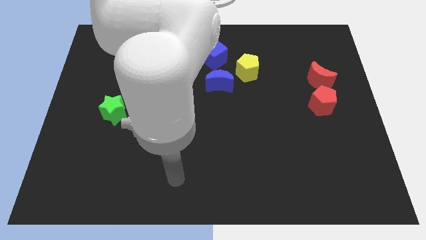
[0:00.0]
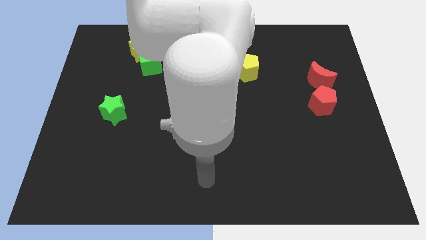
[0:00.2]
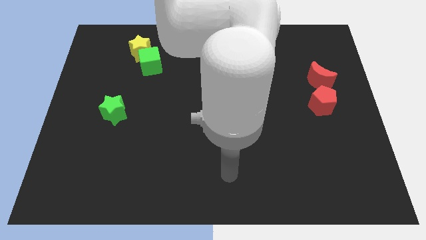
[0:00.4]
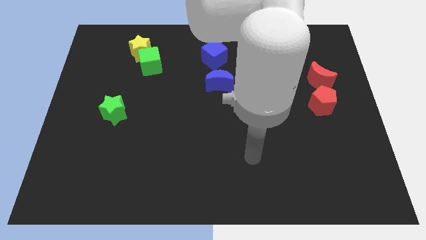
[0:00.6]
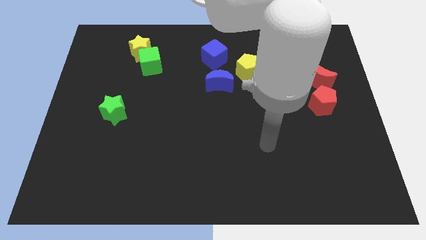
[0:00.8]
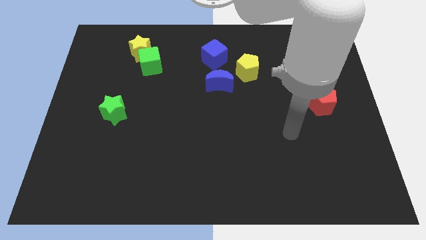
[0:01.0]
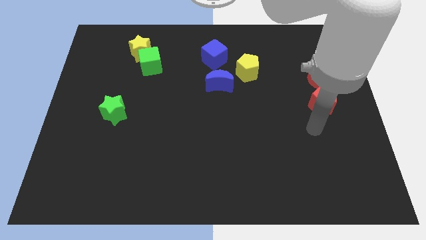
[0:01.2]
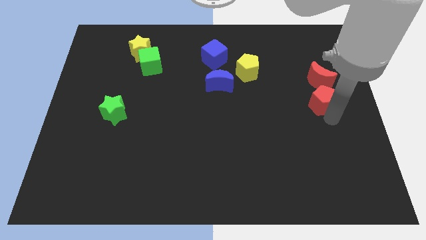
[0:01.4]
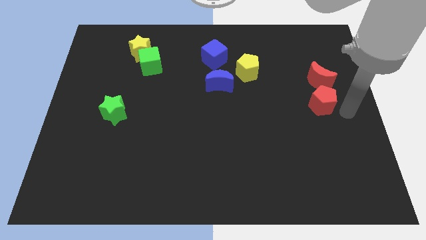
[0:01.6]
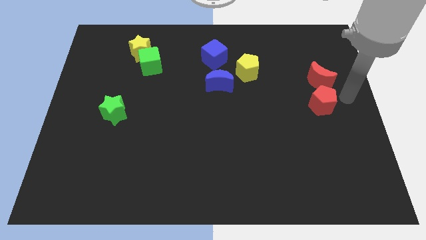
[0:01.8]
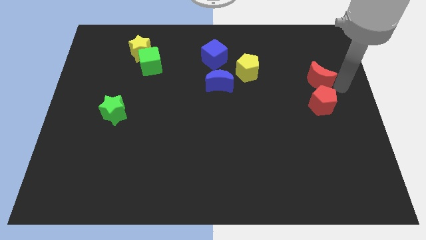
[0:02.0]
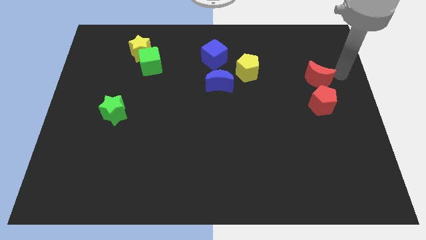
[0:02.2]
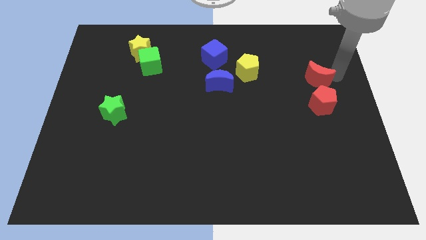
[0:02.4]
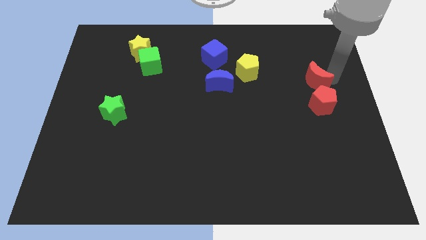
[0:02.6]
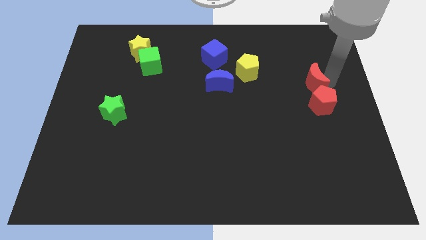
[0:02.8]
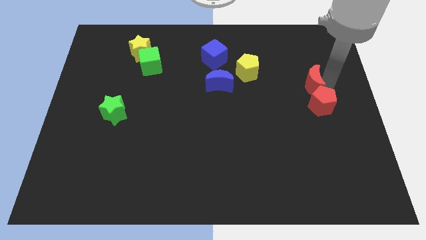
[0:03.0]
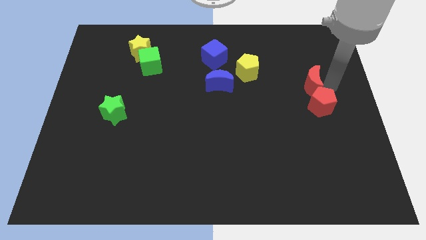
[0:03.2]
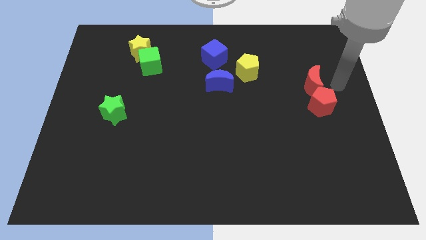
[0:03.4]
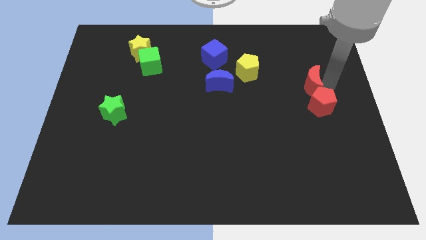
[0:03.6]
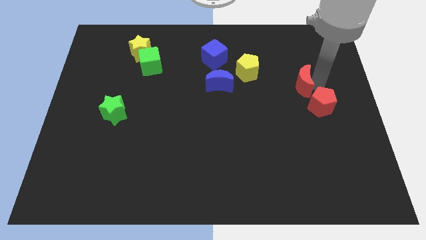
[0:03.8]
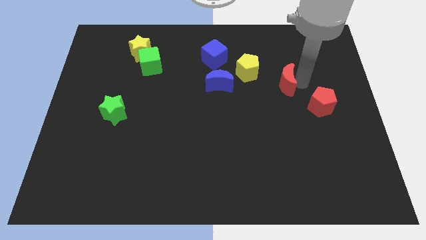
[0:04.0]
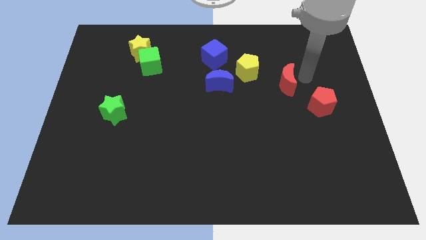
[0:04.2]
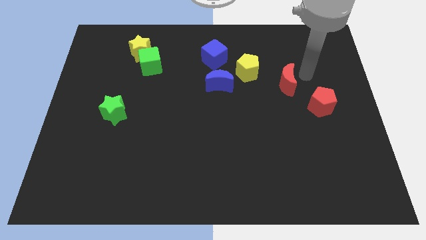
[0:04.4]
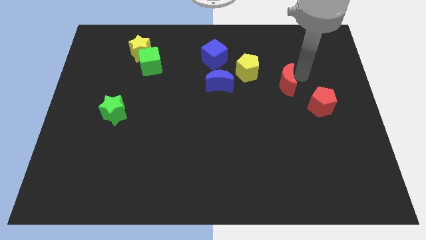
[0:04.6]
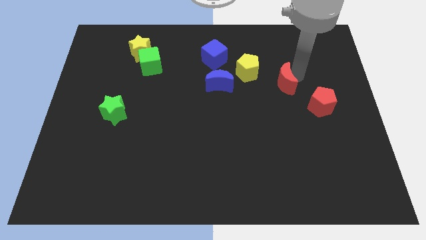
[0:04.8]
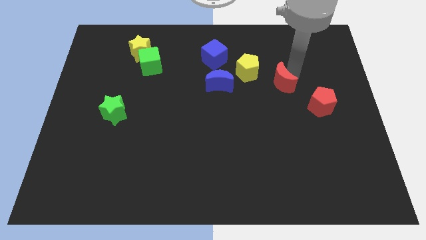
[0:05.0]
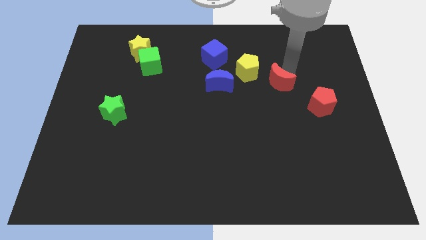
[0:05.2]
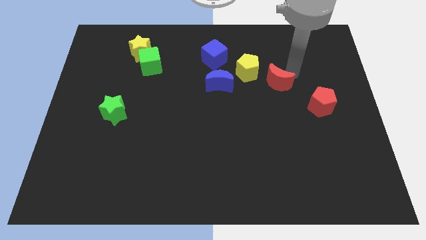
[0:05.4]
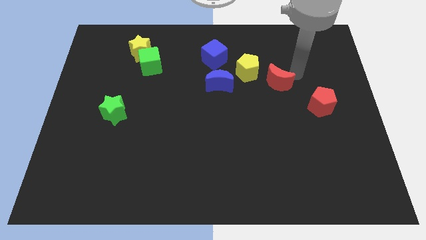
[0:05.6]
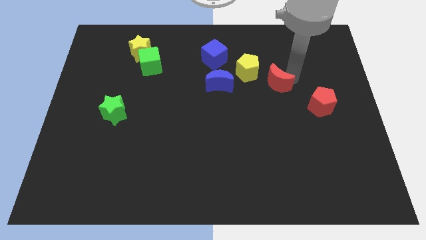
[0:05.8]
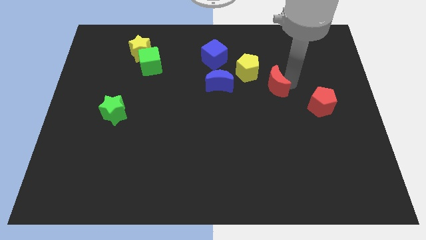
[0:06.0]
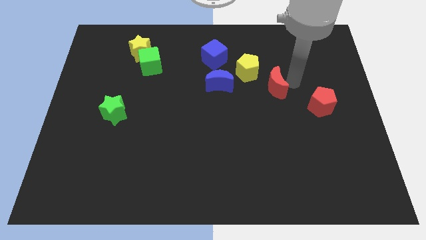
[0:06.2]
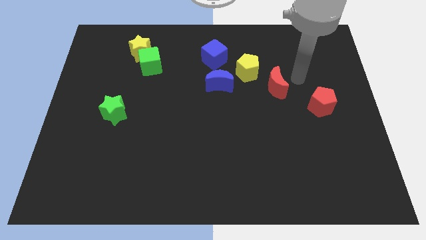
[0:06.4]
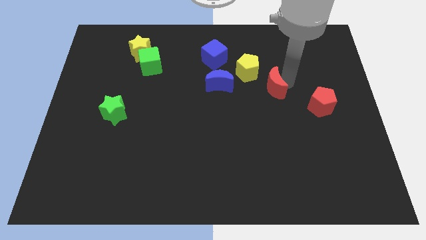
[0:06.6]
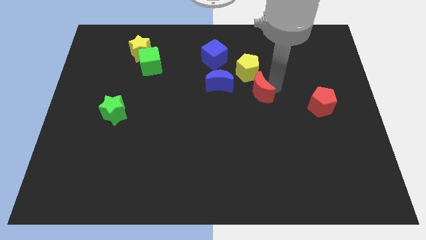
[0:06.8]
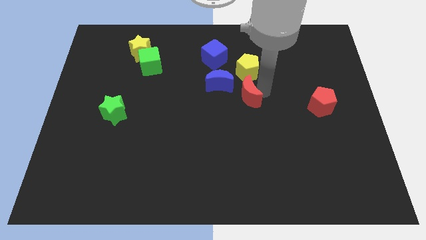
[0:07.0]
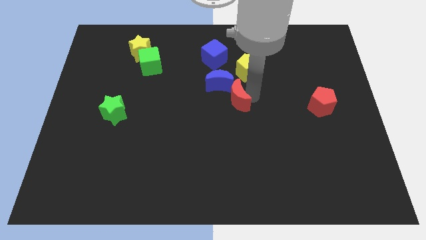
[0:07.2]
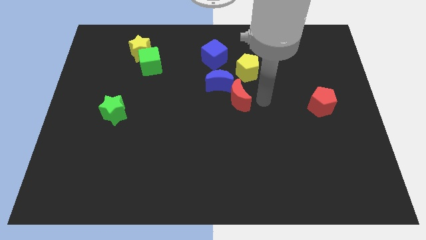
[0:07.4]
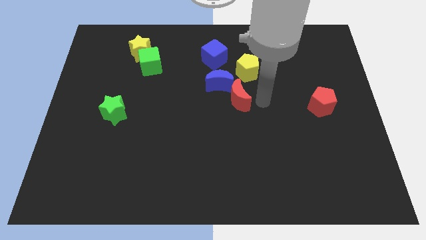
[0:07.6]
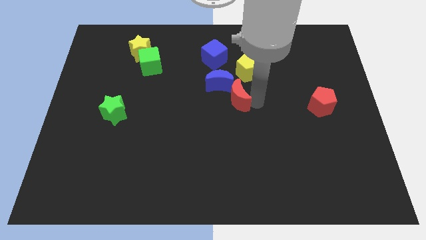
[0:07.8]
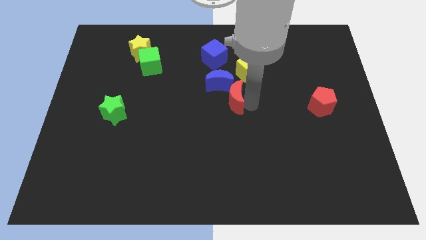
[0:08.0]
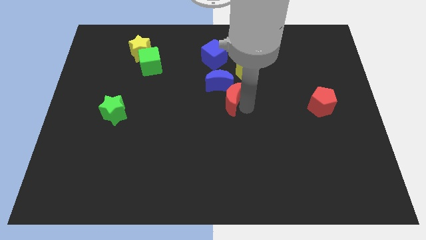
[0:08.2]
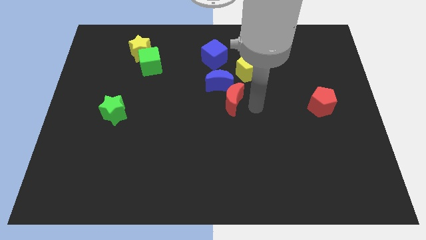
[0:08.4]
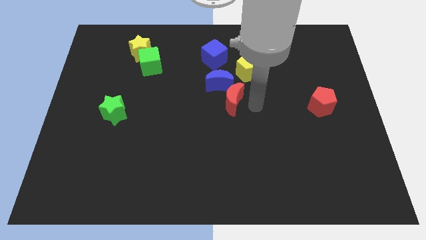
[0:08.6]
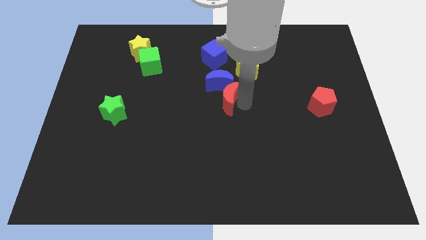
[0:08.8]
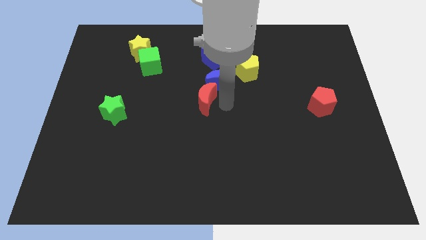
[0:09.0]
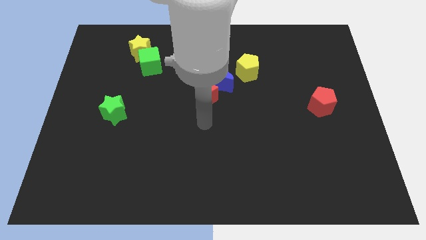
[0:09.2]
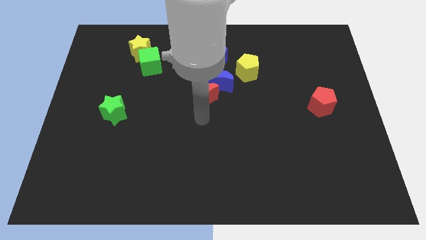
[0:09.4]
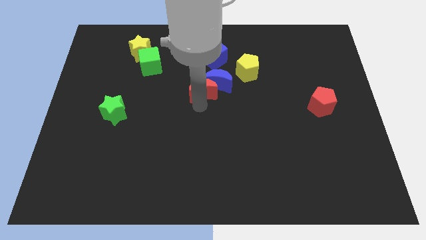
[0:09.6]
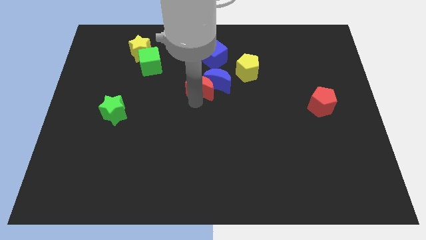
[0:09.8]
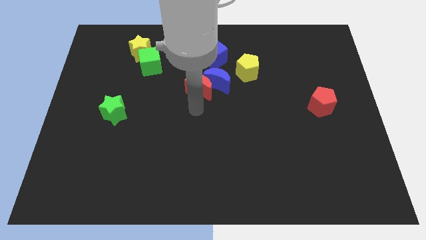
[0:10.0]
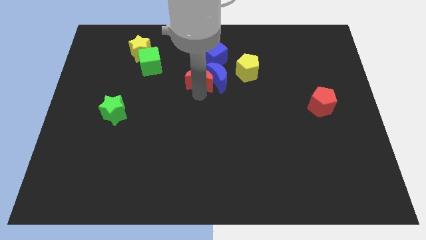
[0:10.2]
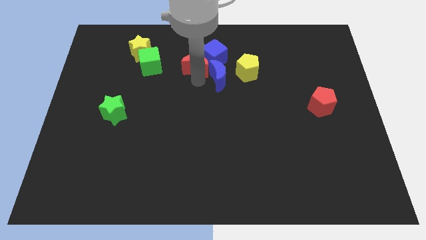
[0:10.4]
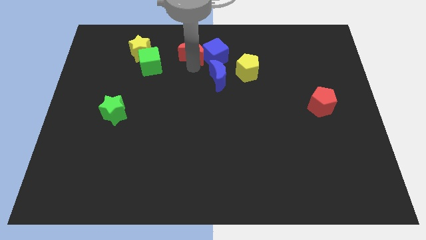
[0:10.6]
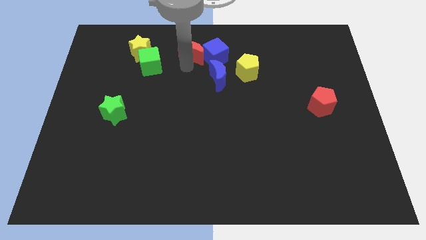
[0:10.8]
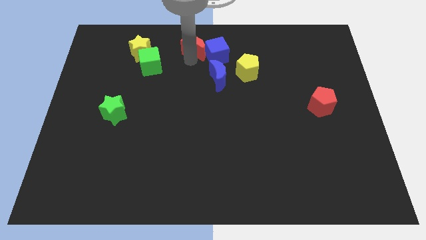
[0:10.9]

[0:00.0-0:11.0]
push the red moon to the towards your base

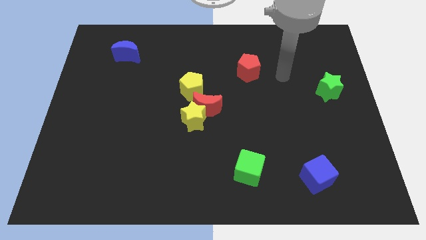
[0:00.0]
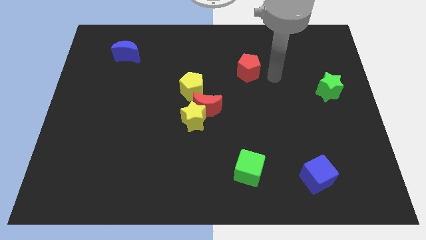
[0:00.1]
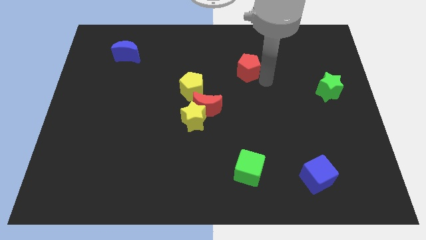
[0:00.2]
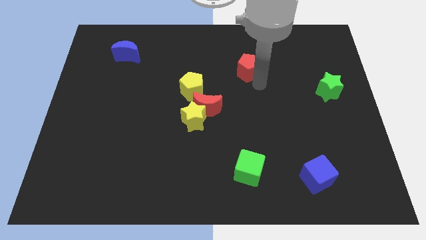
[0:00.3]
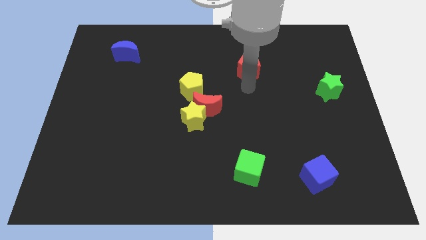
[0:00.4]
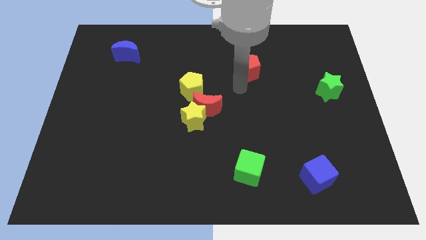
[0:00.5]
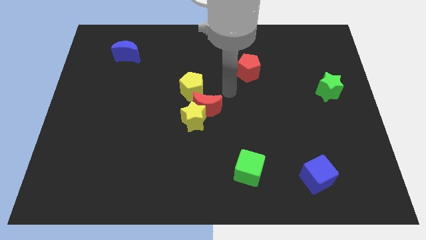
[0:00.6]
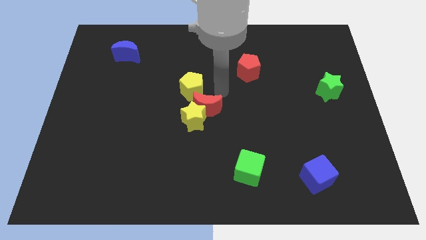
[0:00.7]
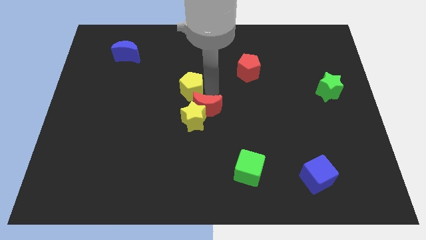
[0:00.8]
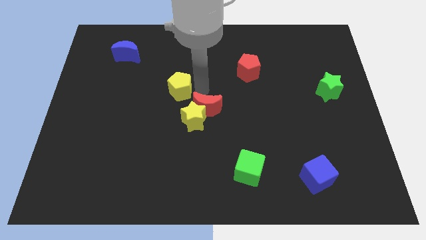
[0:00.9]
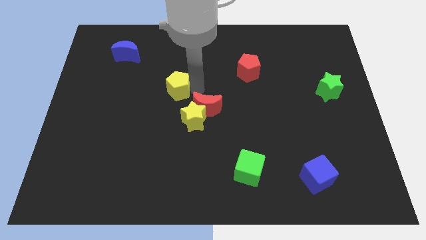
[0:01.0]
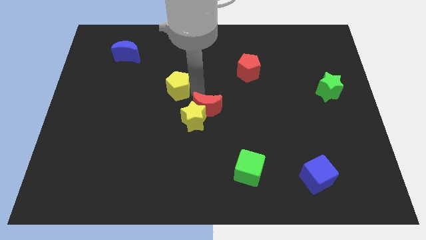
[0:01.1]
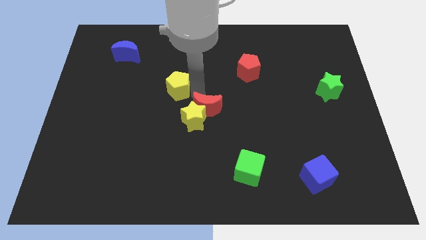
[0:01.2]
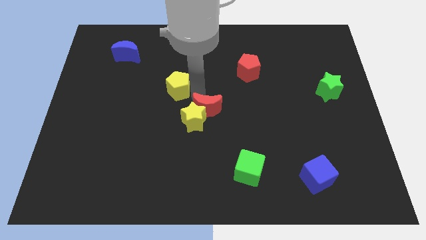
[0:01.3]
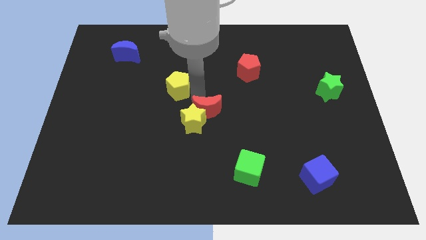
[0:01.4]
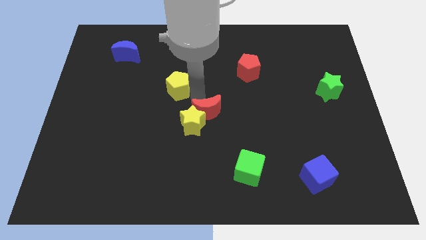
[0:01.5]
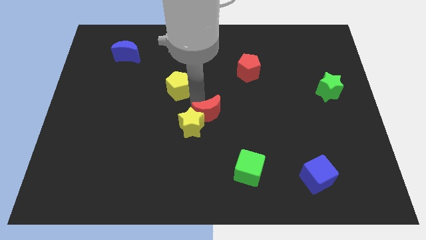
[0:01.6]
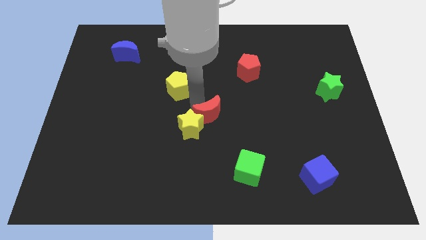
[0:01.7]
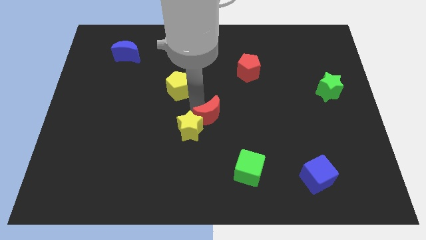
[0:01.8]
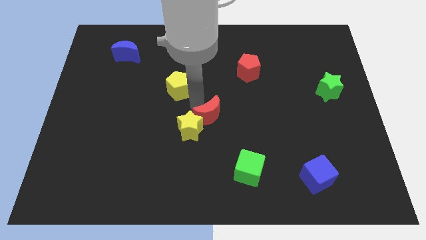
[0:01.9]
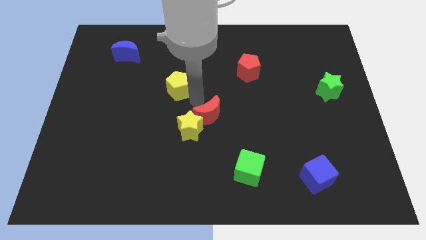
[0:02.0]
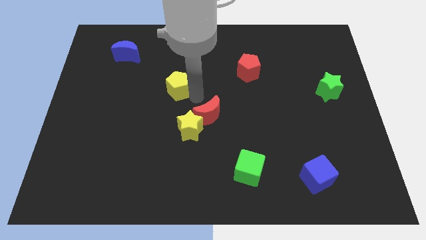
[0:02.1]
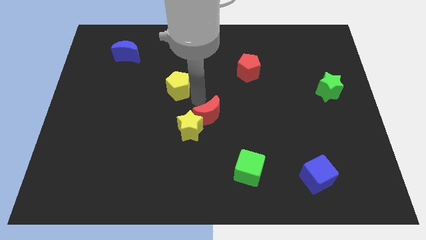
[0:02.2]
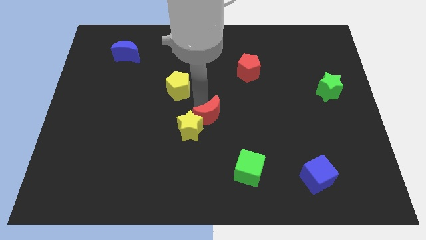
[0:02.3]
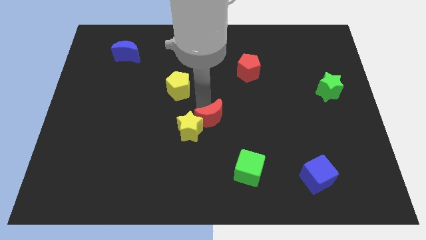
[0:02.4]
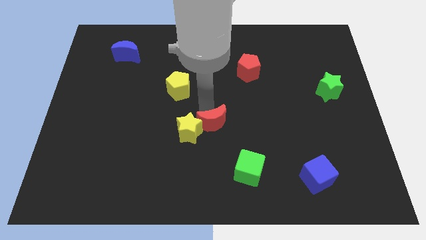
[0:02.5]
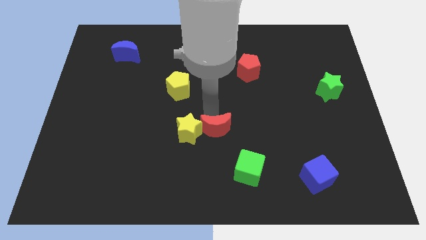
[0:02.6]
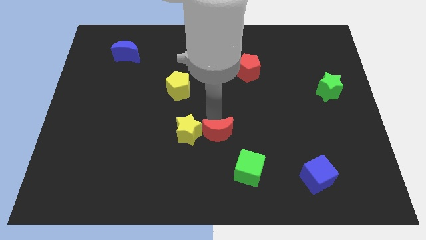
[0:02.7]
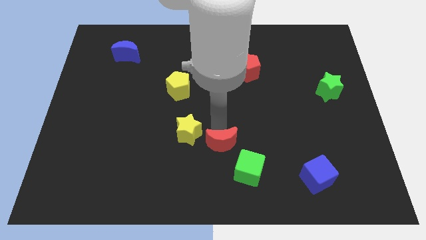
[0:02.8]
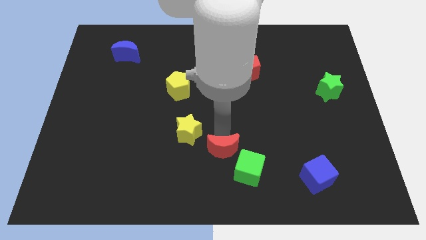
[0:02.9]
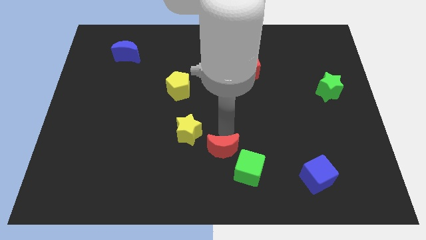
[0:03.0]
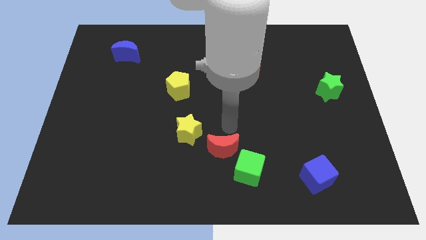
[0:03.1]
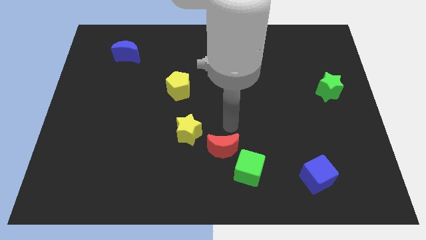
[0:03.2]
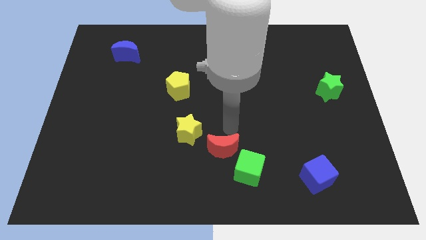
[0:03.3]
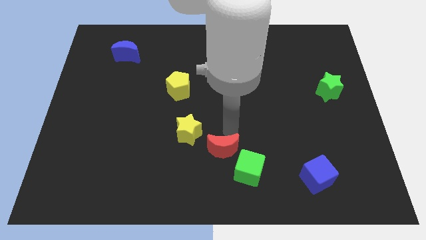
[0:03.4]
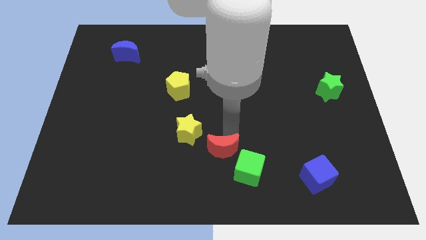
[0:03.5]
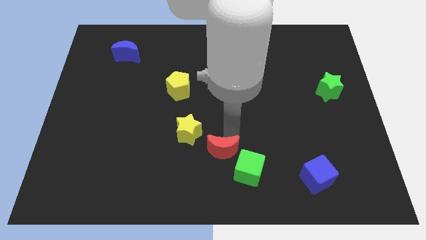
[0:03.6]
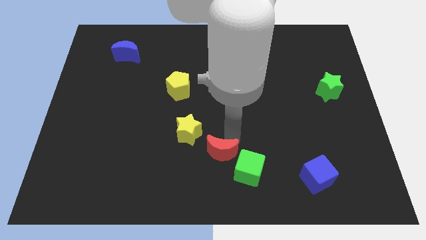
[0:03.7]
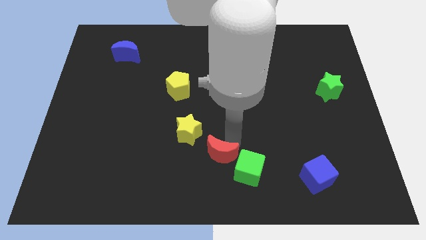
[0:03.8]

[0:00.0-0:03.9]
push the red moon to the bottom side
